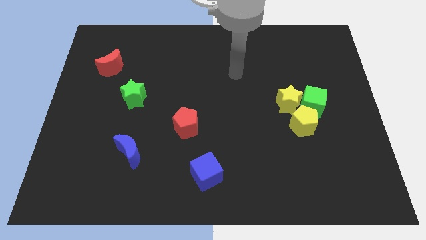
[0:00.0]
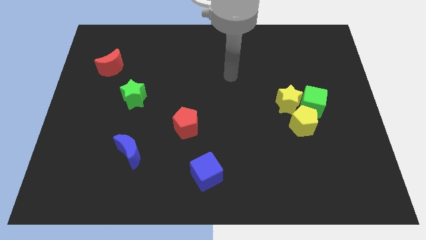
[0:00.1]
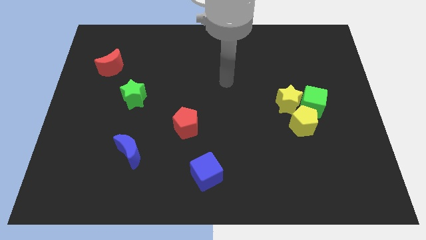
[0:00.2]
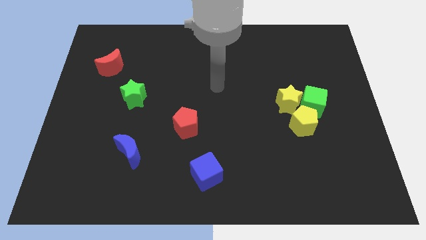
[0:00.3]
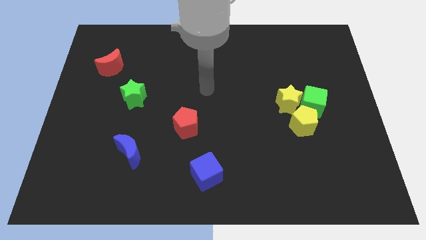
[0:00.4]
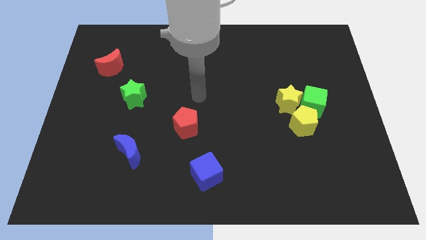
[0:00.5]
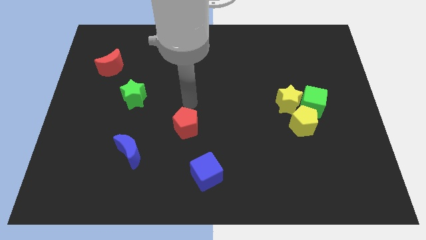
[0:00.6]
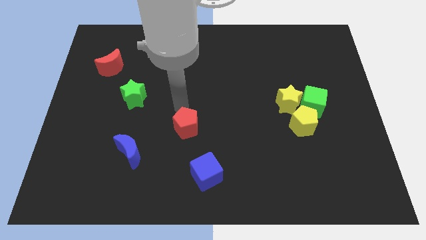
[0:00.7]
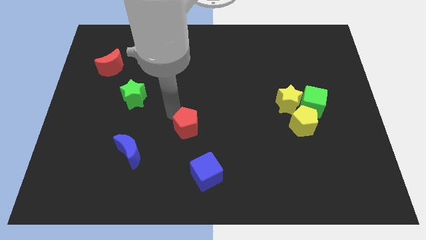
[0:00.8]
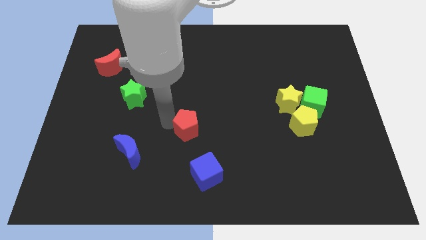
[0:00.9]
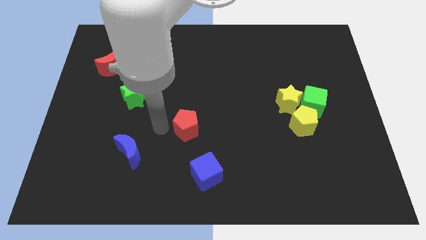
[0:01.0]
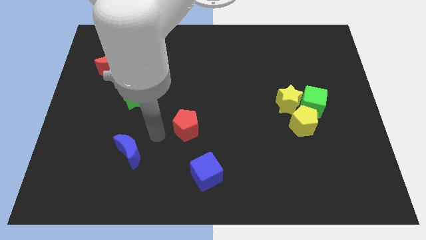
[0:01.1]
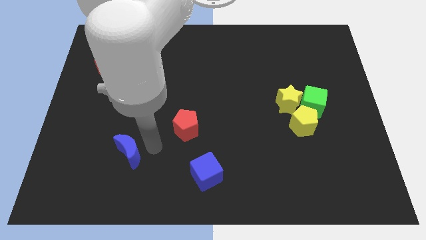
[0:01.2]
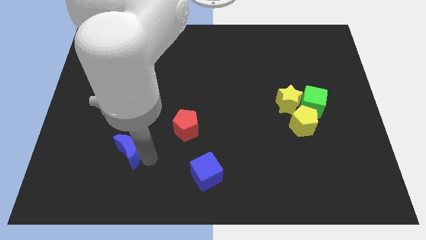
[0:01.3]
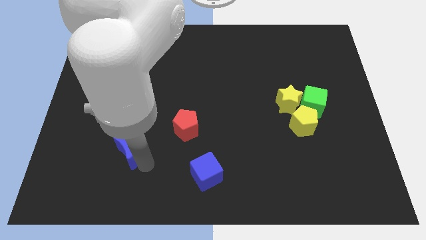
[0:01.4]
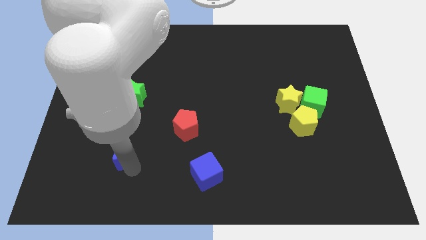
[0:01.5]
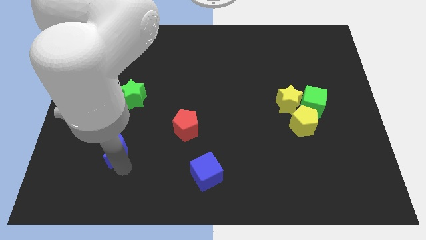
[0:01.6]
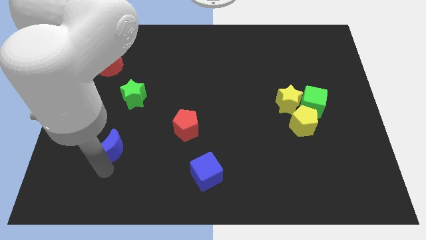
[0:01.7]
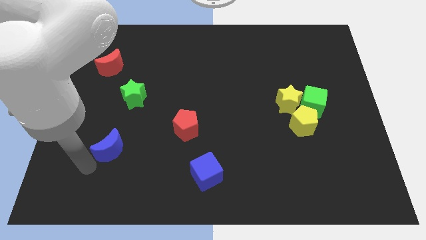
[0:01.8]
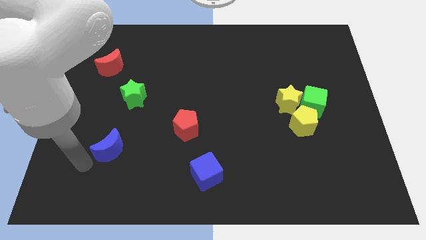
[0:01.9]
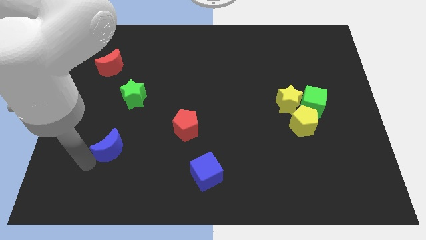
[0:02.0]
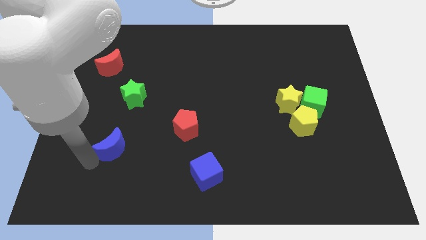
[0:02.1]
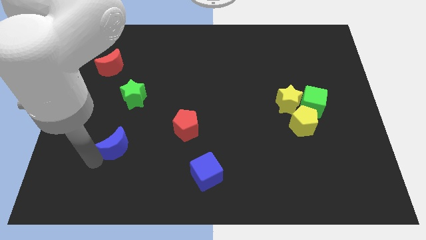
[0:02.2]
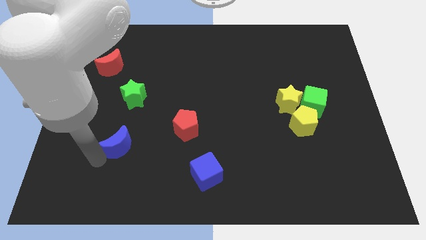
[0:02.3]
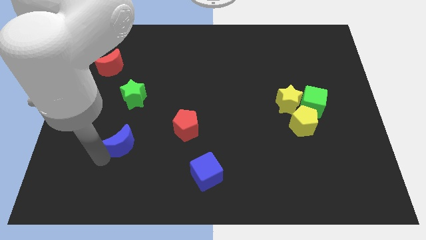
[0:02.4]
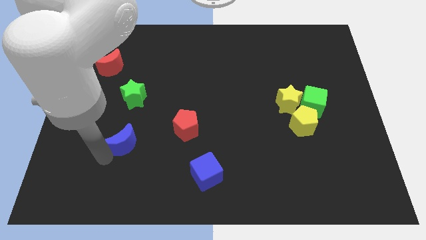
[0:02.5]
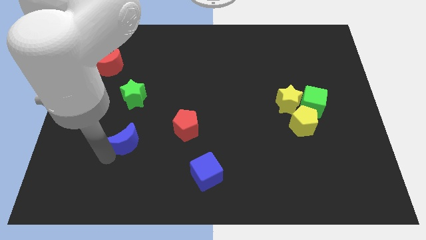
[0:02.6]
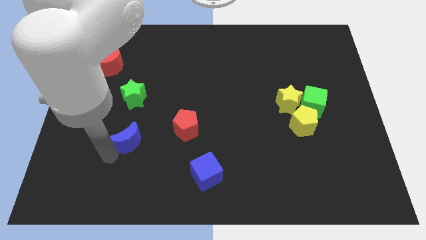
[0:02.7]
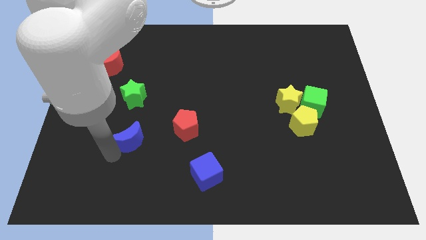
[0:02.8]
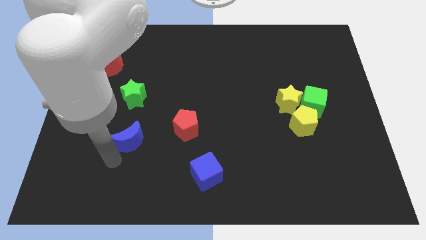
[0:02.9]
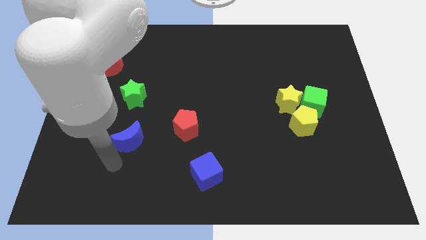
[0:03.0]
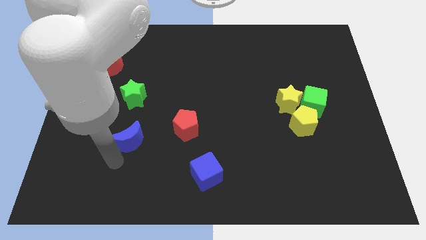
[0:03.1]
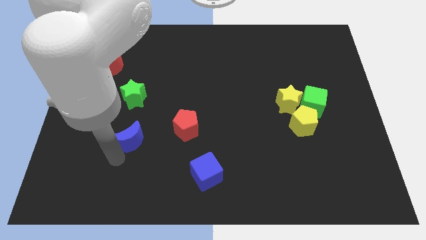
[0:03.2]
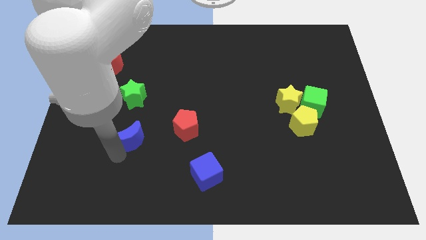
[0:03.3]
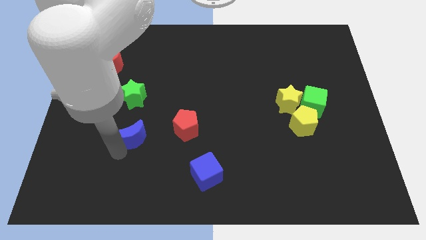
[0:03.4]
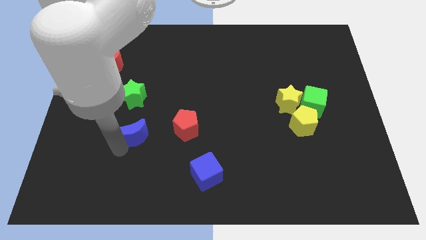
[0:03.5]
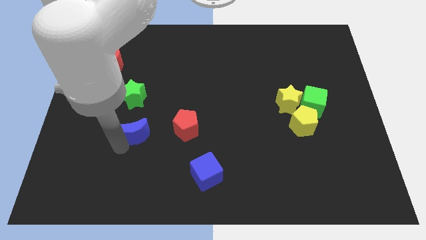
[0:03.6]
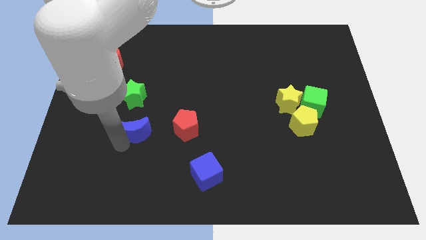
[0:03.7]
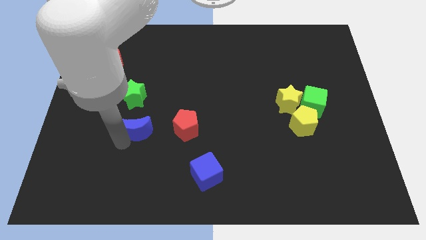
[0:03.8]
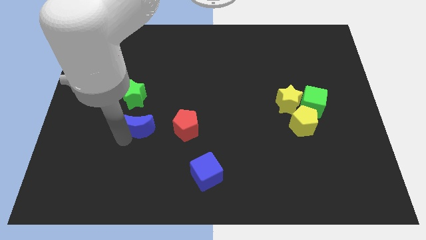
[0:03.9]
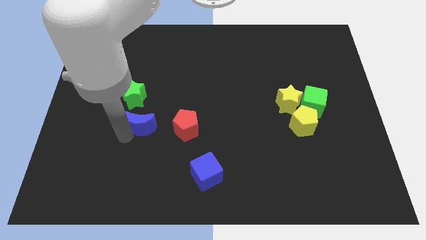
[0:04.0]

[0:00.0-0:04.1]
move the blue moon up a bit

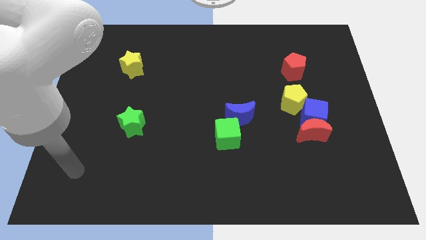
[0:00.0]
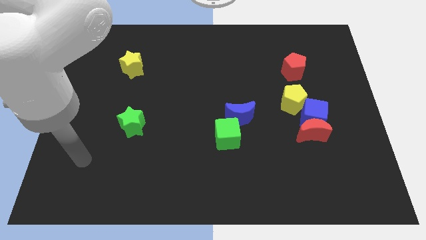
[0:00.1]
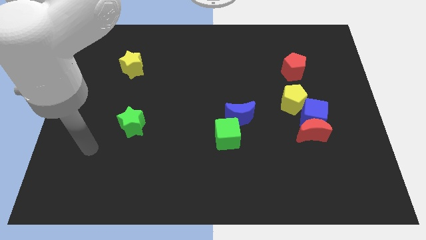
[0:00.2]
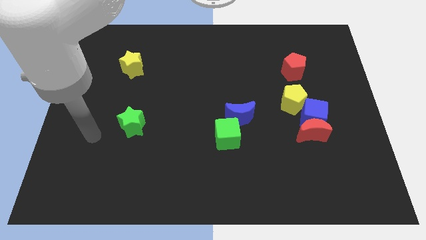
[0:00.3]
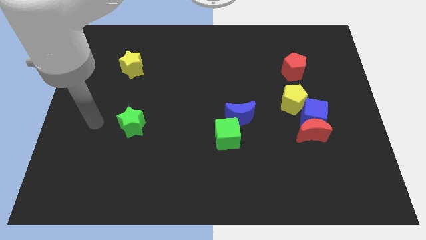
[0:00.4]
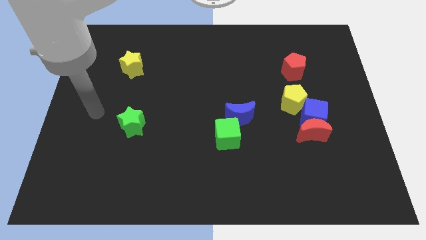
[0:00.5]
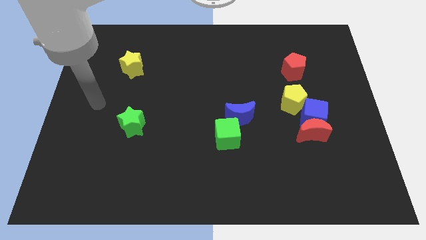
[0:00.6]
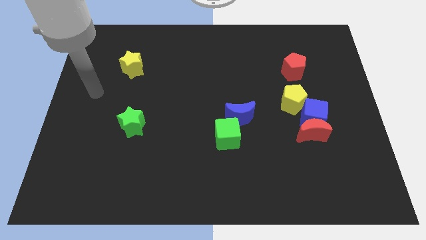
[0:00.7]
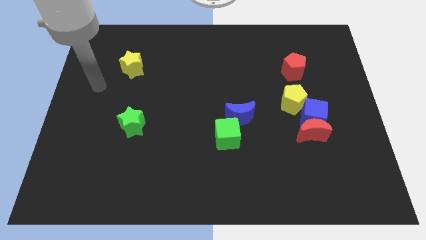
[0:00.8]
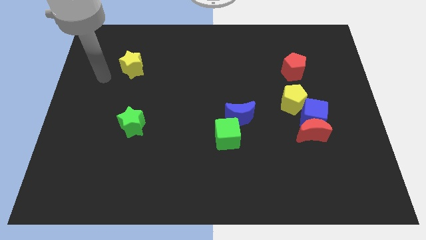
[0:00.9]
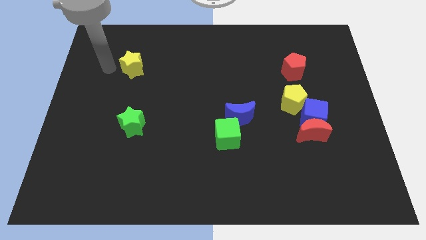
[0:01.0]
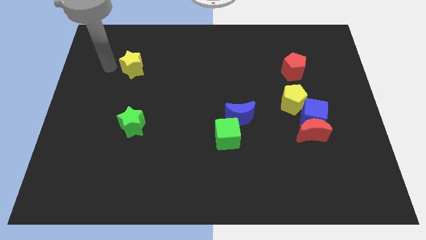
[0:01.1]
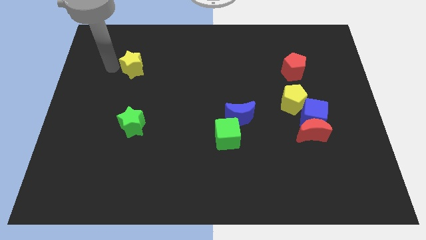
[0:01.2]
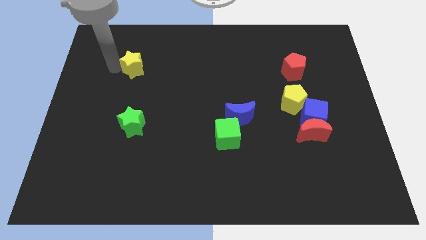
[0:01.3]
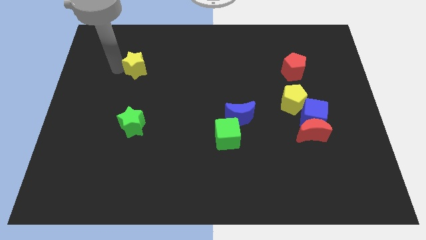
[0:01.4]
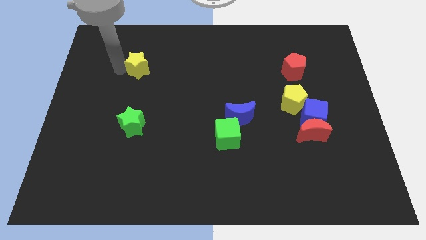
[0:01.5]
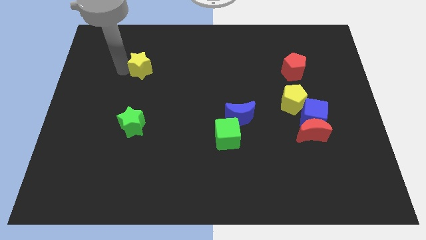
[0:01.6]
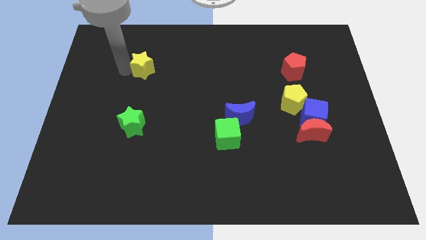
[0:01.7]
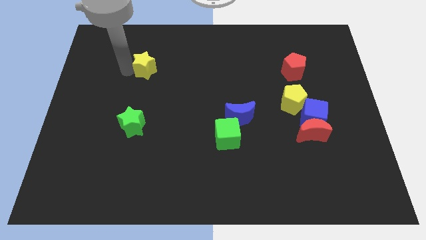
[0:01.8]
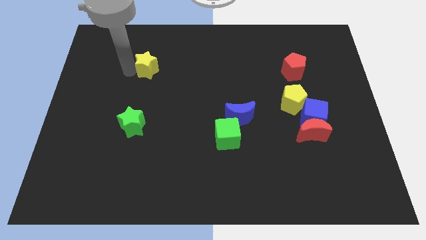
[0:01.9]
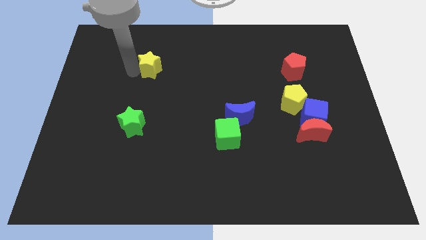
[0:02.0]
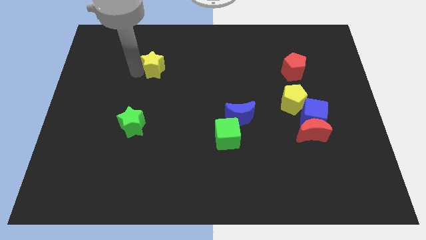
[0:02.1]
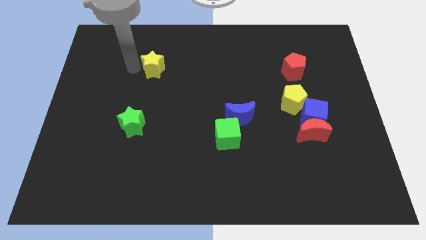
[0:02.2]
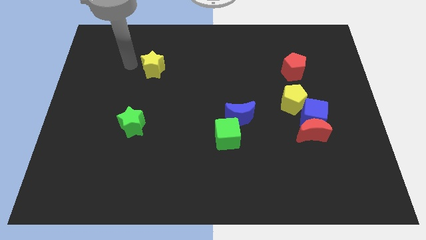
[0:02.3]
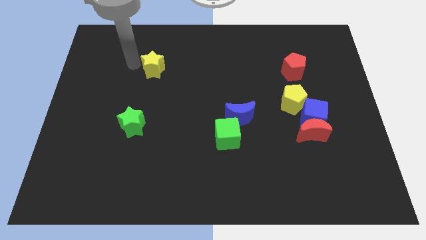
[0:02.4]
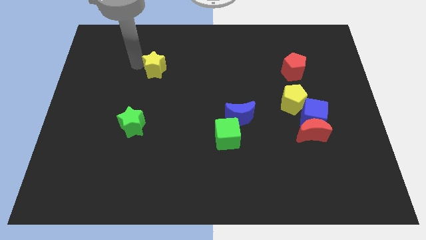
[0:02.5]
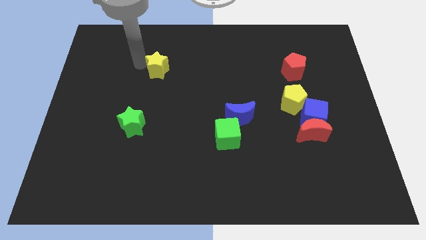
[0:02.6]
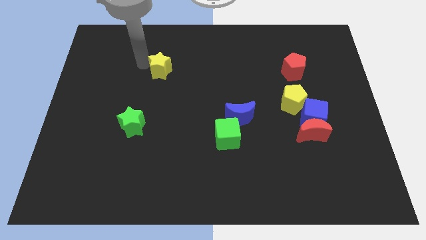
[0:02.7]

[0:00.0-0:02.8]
push the yellow star right somewhat

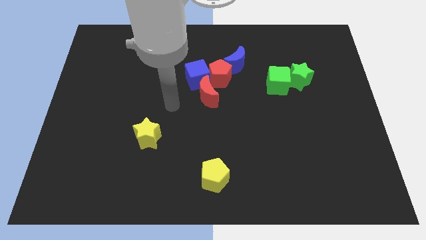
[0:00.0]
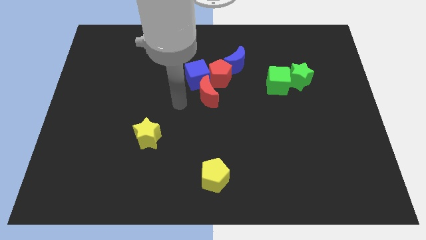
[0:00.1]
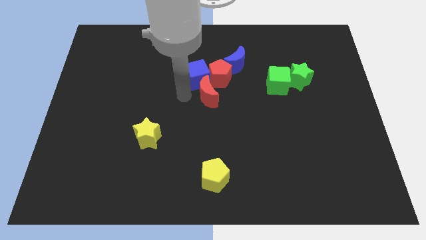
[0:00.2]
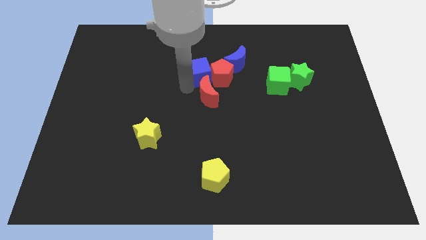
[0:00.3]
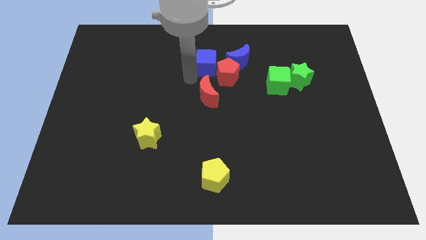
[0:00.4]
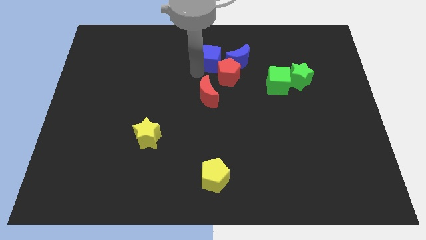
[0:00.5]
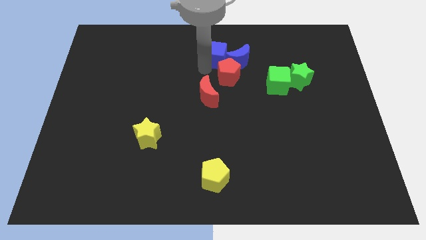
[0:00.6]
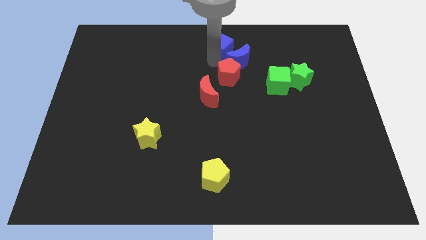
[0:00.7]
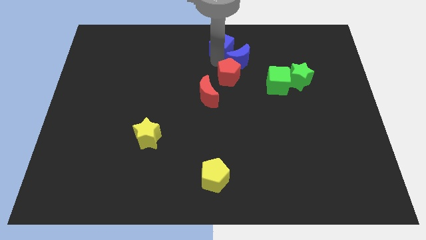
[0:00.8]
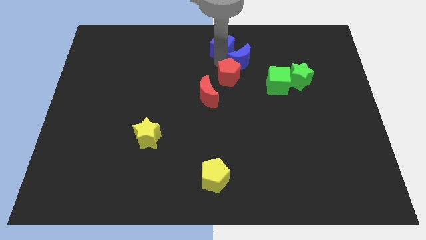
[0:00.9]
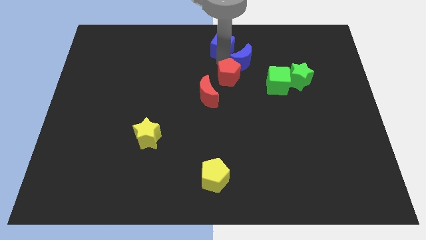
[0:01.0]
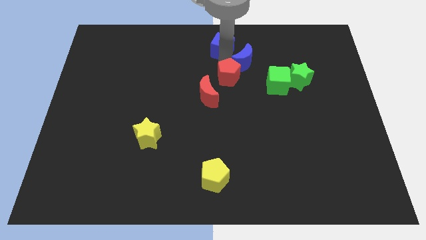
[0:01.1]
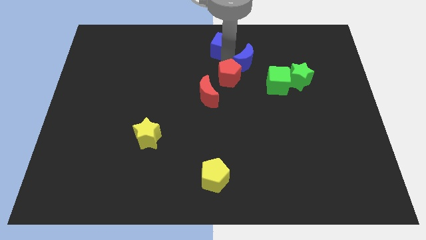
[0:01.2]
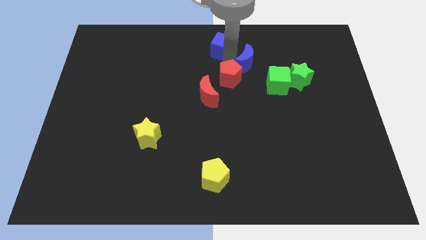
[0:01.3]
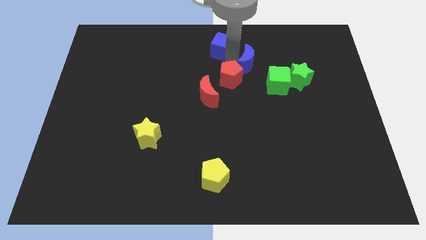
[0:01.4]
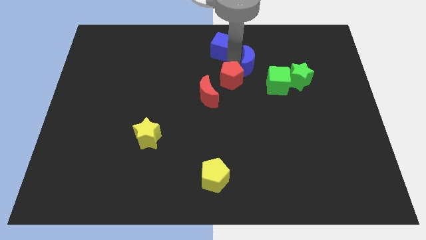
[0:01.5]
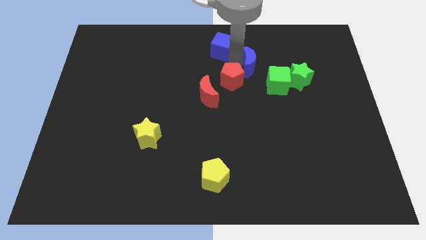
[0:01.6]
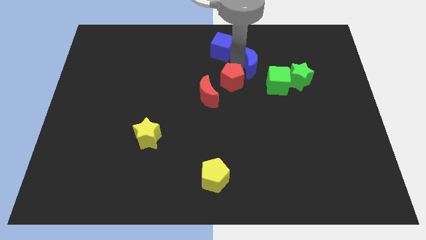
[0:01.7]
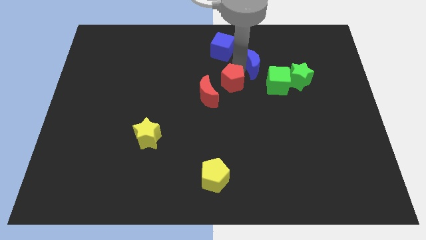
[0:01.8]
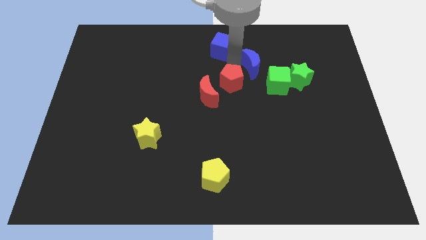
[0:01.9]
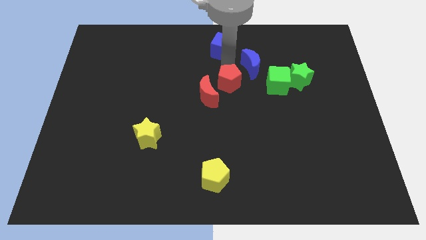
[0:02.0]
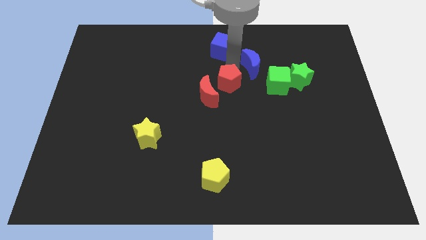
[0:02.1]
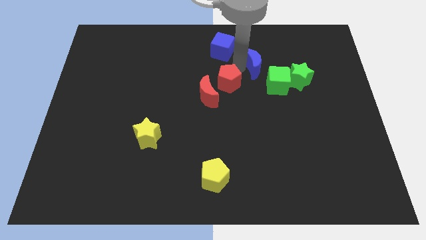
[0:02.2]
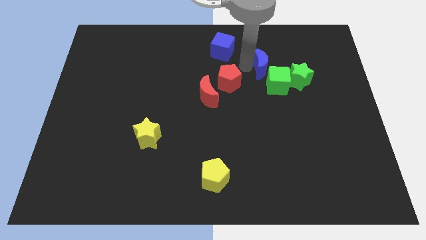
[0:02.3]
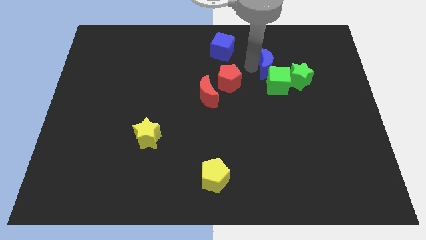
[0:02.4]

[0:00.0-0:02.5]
push the blue moon to the right a bit
